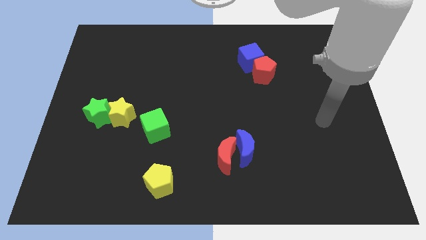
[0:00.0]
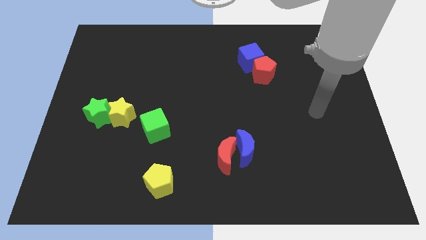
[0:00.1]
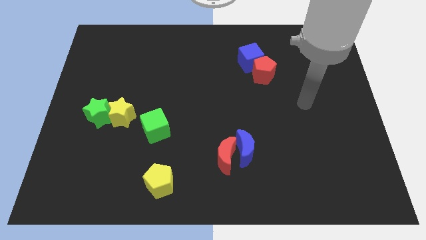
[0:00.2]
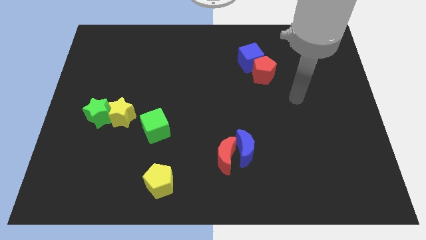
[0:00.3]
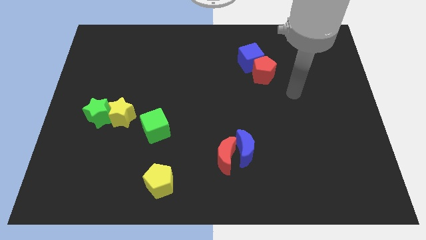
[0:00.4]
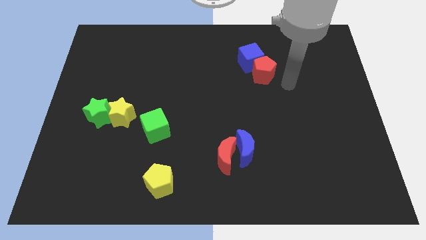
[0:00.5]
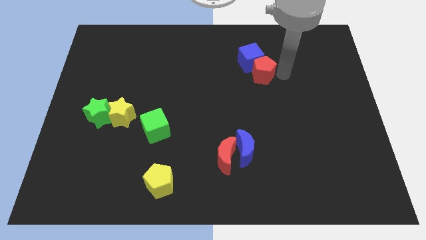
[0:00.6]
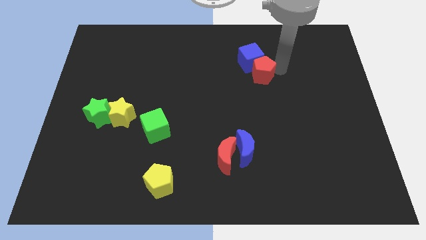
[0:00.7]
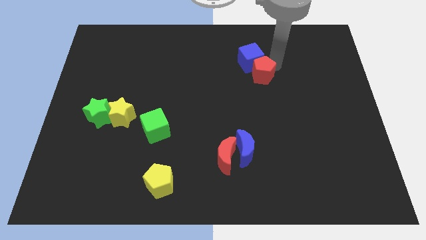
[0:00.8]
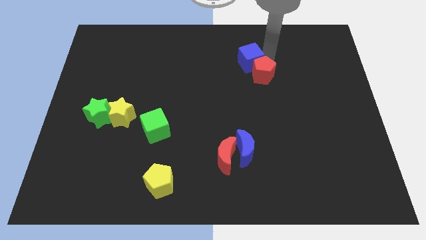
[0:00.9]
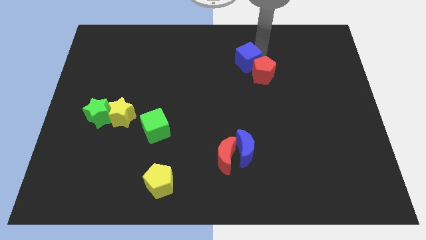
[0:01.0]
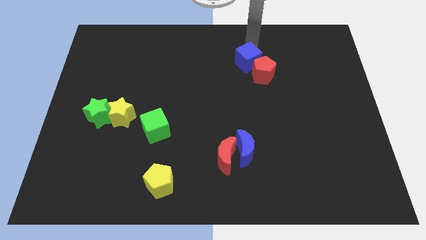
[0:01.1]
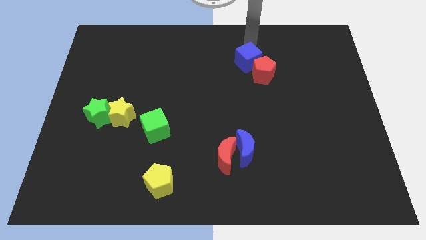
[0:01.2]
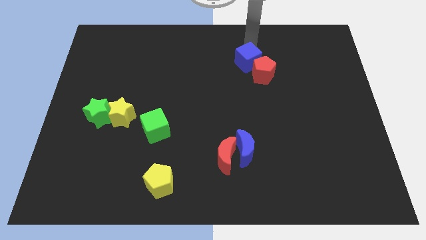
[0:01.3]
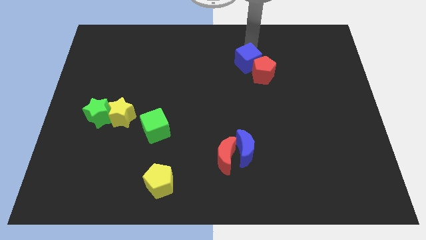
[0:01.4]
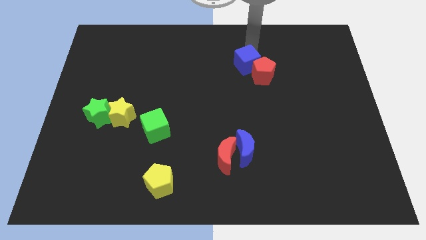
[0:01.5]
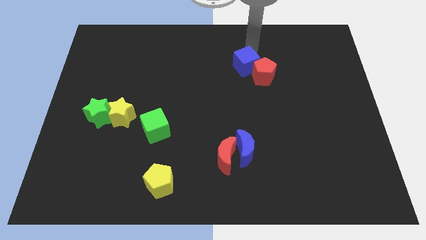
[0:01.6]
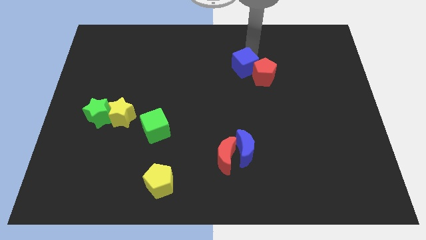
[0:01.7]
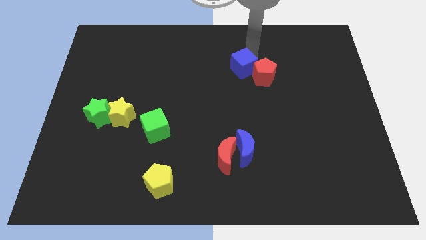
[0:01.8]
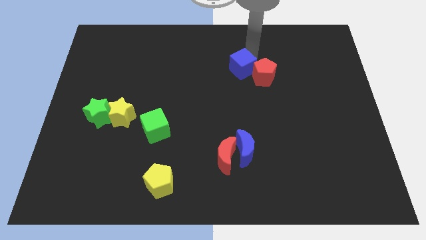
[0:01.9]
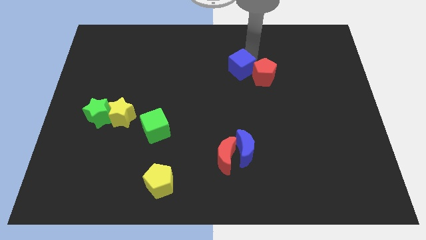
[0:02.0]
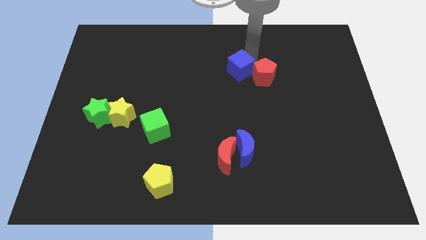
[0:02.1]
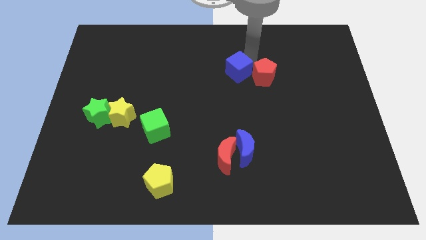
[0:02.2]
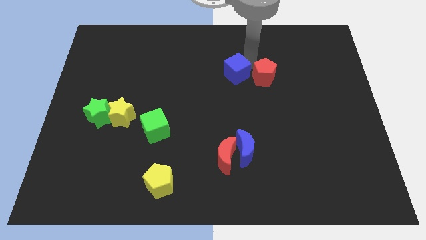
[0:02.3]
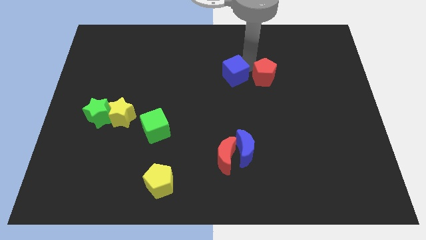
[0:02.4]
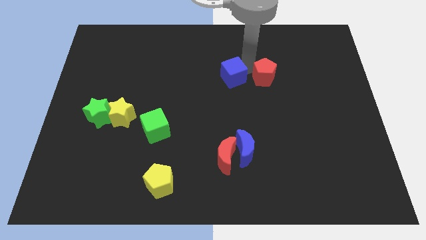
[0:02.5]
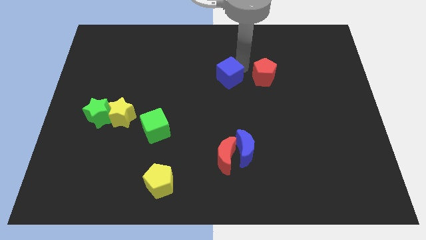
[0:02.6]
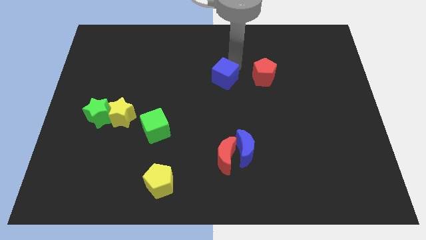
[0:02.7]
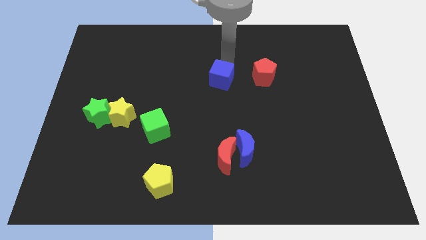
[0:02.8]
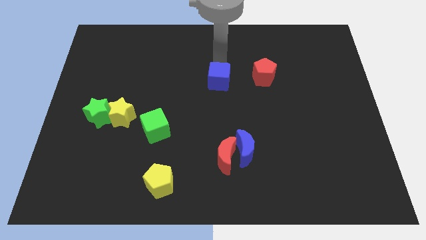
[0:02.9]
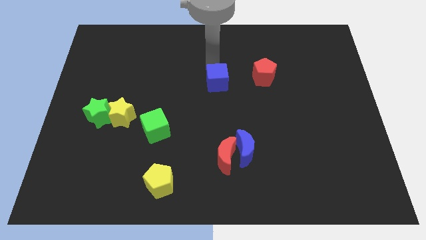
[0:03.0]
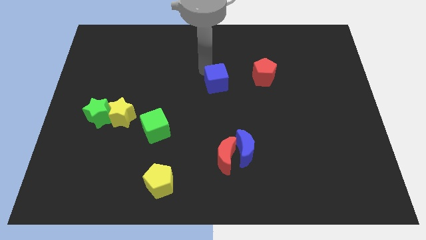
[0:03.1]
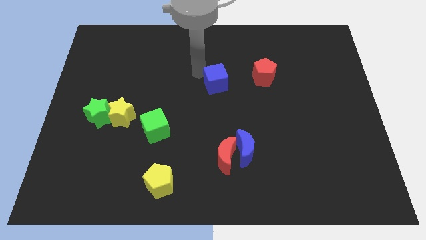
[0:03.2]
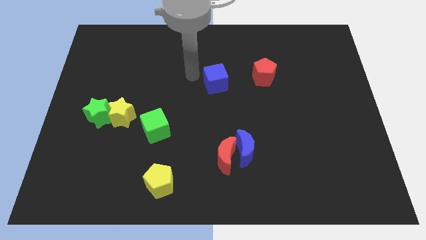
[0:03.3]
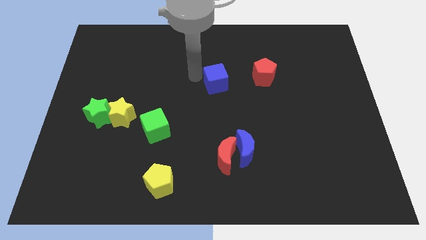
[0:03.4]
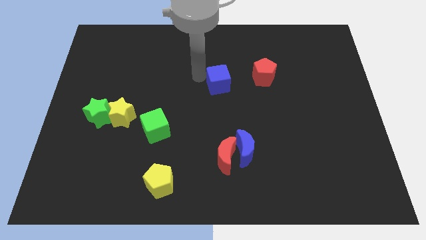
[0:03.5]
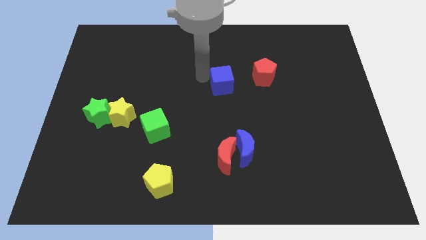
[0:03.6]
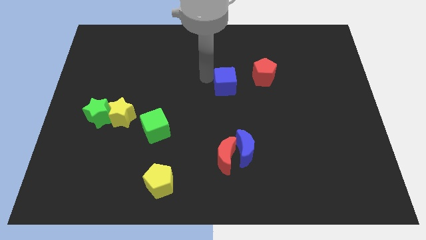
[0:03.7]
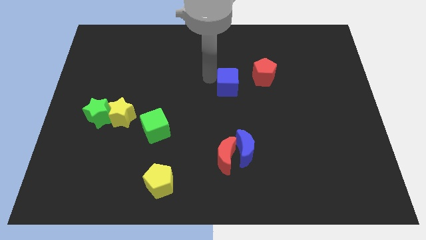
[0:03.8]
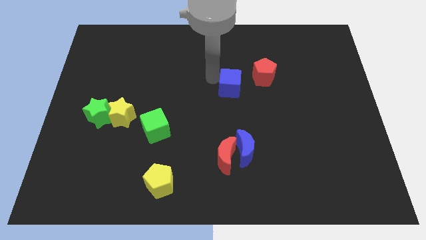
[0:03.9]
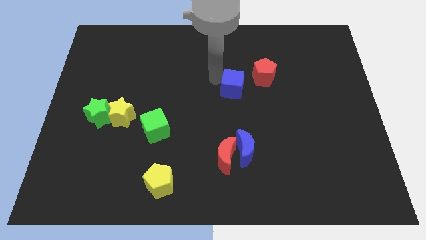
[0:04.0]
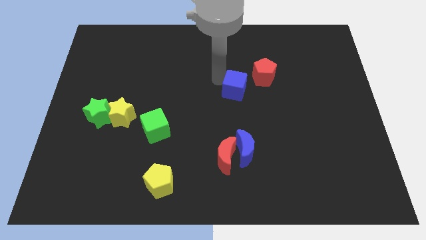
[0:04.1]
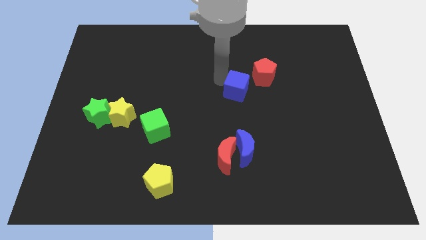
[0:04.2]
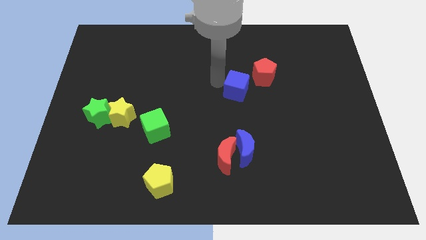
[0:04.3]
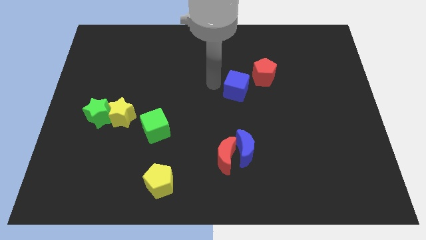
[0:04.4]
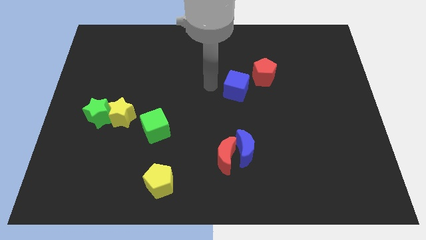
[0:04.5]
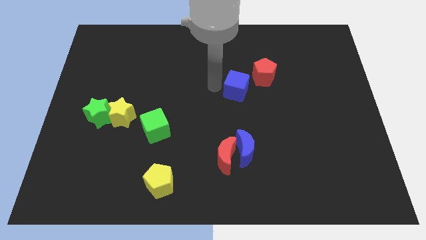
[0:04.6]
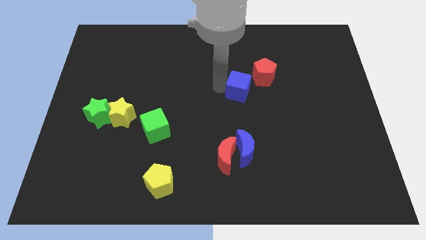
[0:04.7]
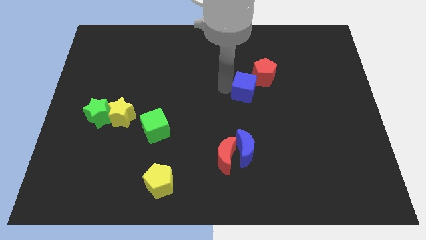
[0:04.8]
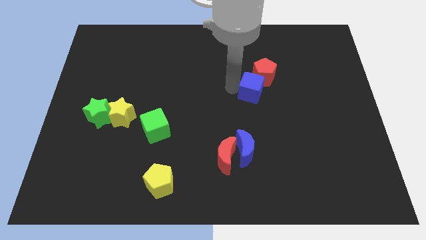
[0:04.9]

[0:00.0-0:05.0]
put the blue cube to the bottom of the red pentagon

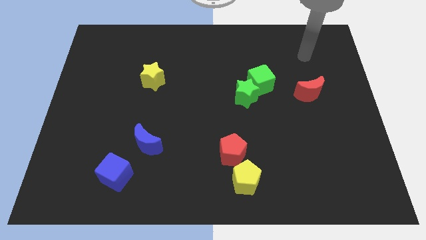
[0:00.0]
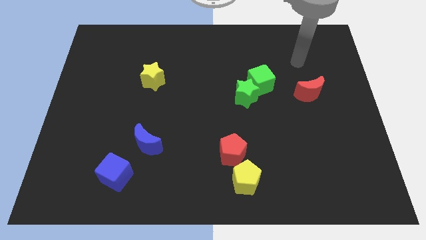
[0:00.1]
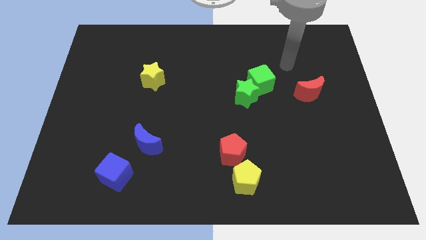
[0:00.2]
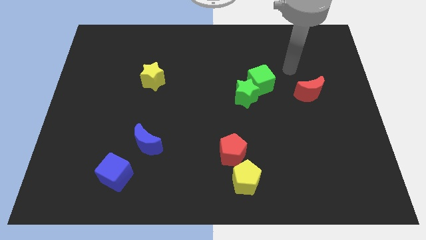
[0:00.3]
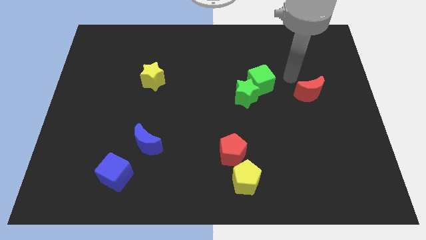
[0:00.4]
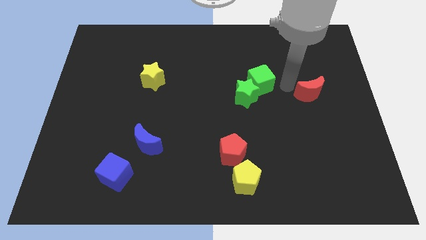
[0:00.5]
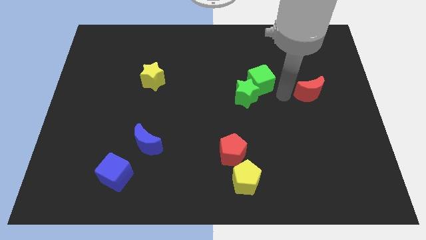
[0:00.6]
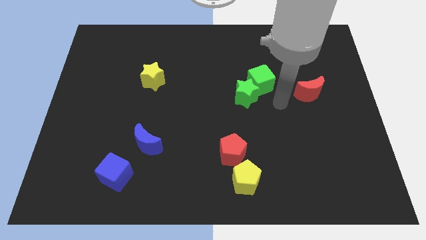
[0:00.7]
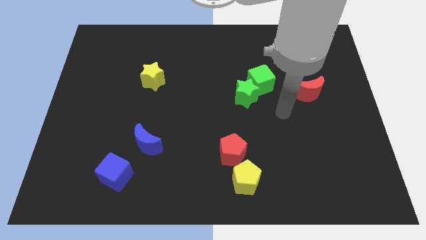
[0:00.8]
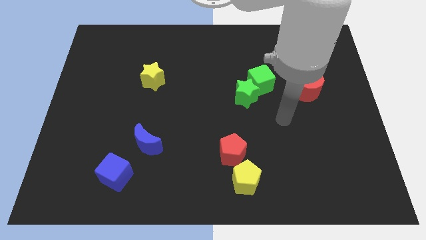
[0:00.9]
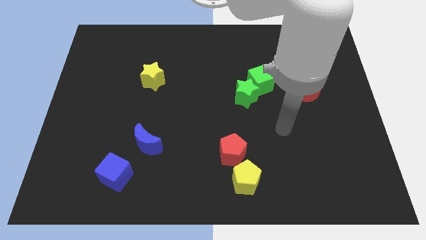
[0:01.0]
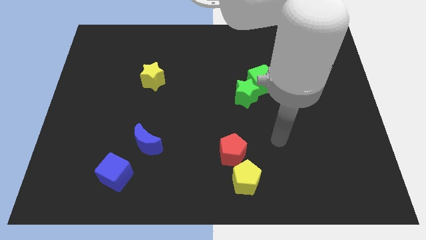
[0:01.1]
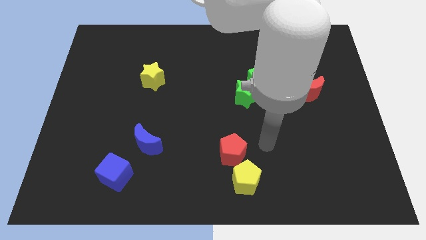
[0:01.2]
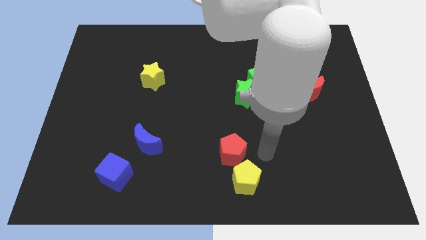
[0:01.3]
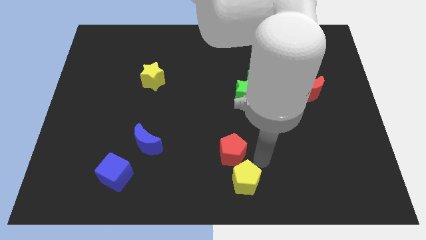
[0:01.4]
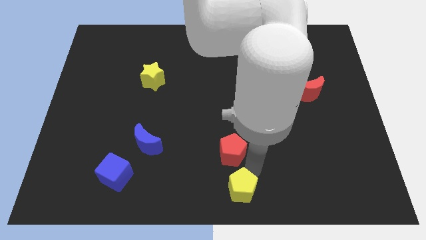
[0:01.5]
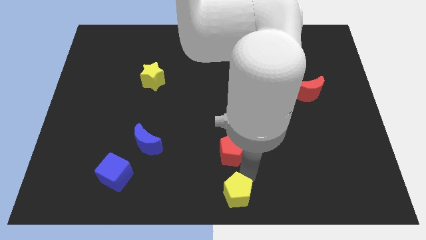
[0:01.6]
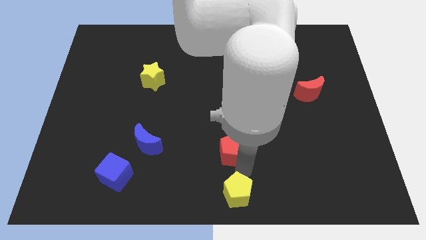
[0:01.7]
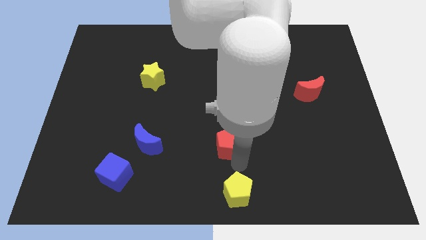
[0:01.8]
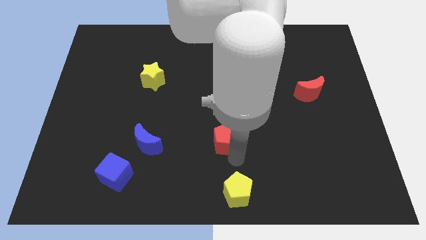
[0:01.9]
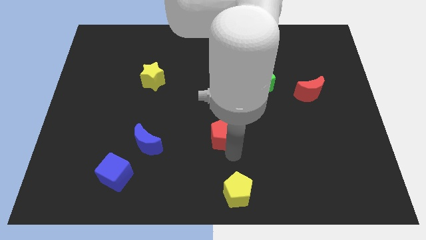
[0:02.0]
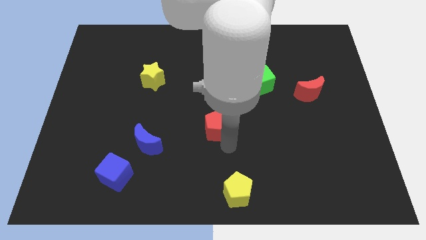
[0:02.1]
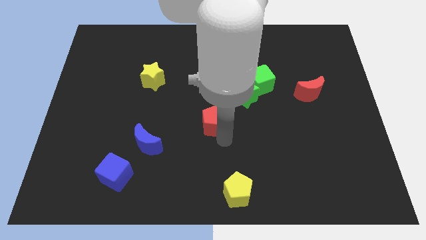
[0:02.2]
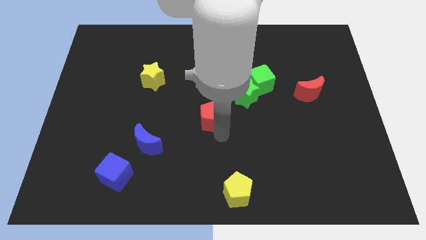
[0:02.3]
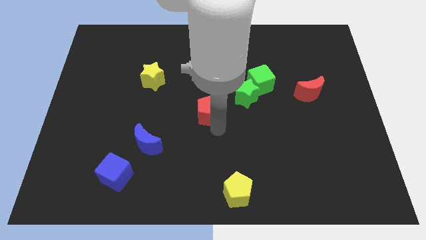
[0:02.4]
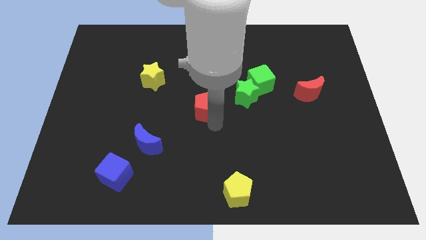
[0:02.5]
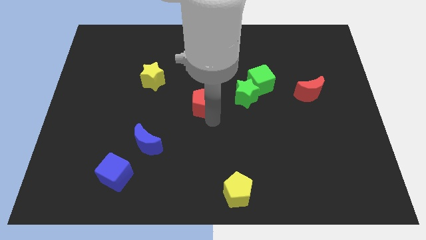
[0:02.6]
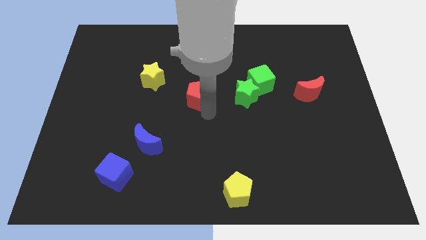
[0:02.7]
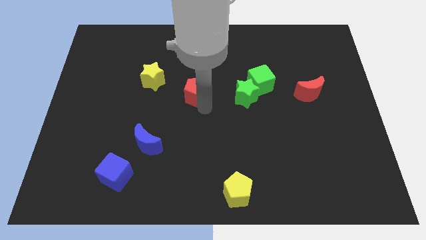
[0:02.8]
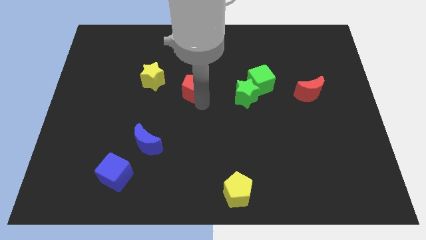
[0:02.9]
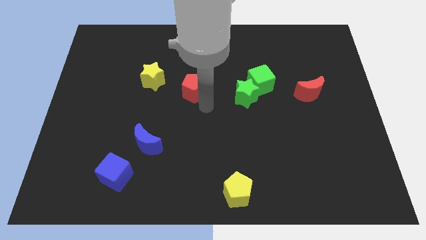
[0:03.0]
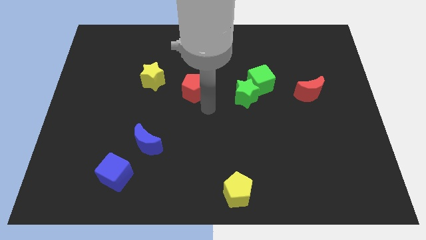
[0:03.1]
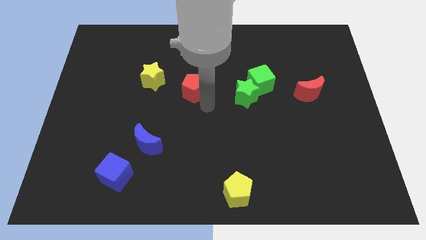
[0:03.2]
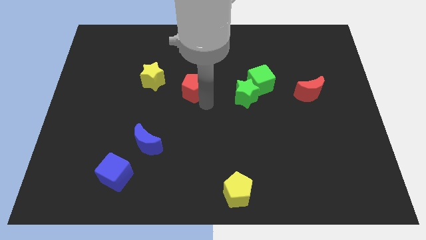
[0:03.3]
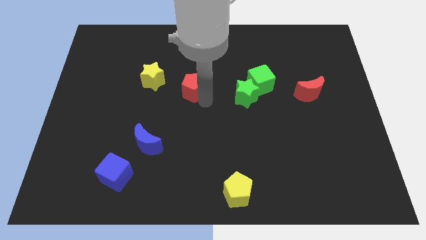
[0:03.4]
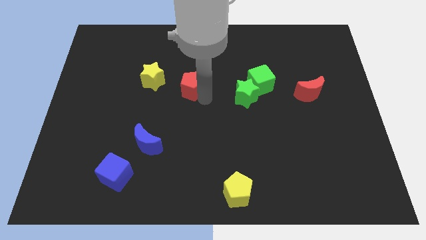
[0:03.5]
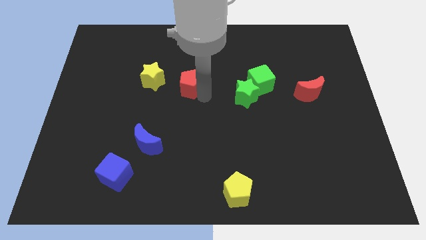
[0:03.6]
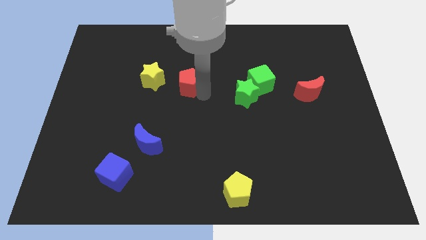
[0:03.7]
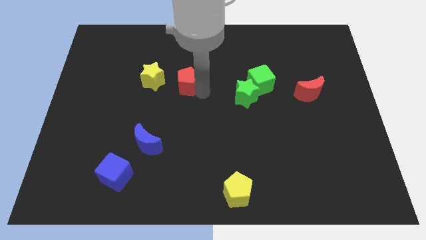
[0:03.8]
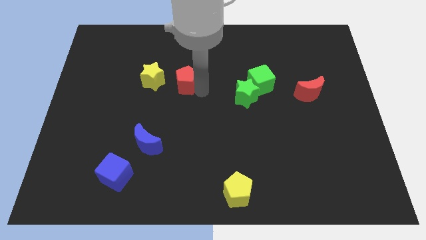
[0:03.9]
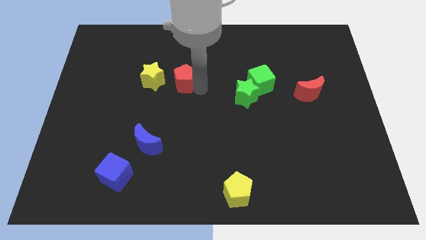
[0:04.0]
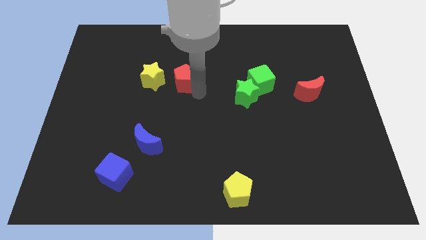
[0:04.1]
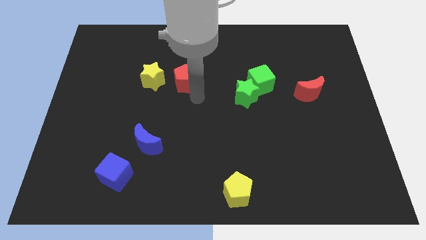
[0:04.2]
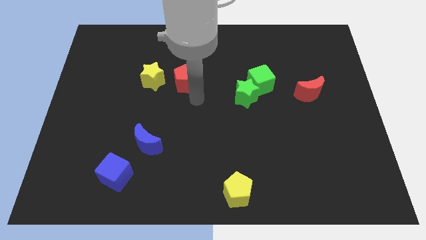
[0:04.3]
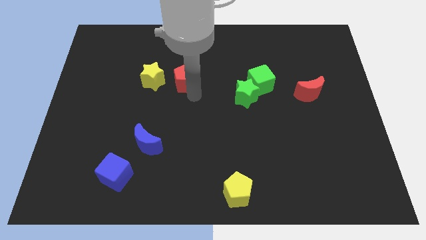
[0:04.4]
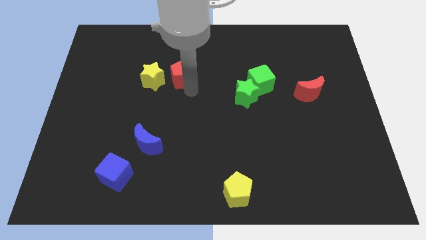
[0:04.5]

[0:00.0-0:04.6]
move the red pentagon to the top right of the yellow star
